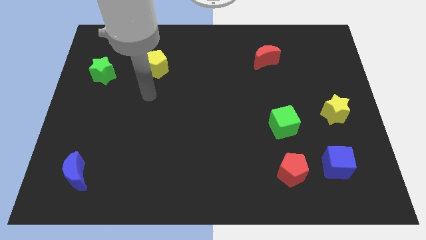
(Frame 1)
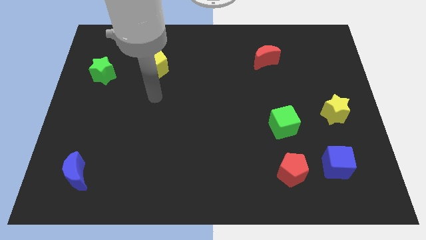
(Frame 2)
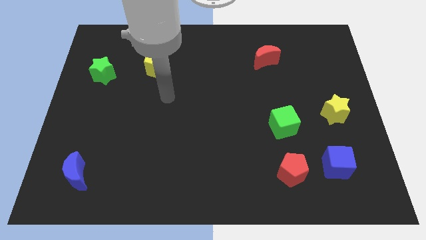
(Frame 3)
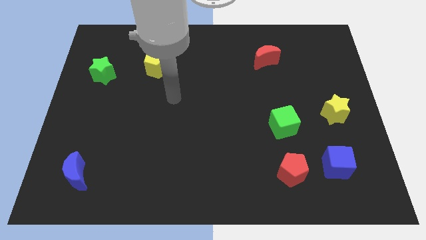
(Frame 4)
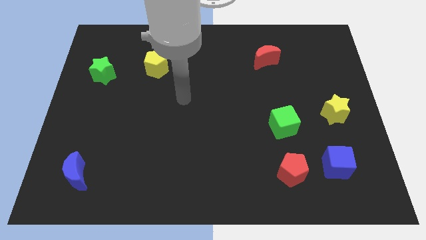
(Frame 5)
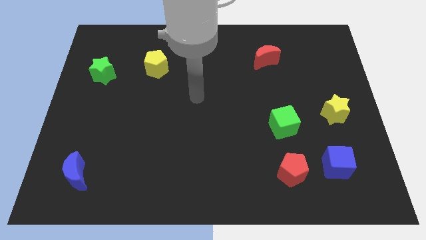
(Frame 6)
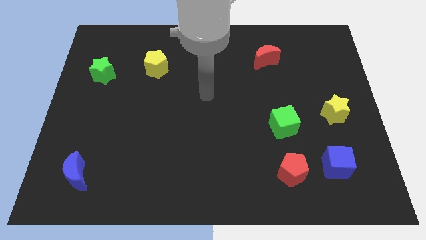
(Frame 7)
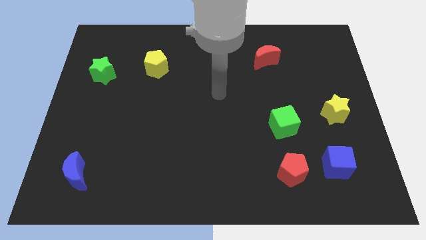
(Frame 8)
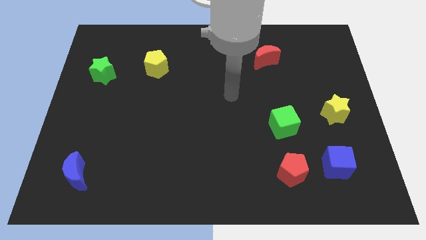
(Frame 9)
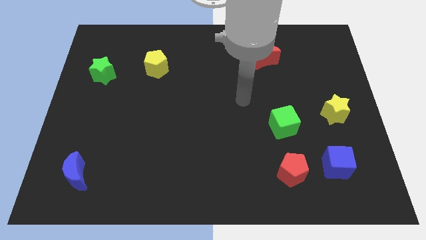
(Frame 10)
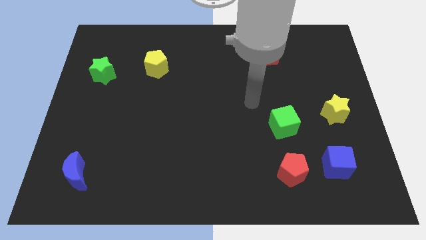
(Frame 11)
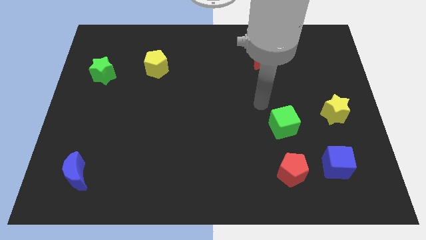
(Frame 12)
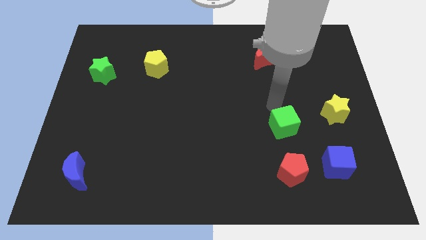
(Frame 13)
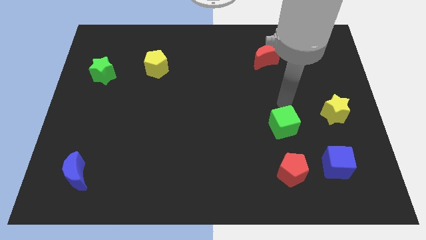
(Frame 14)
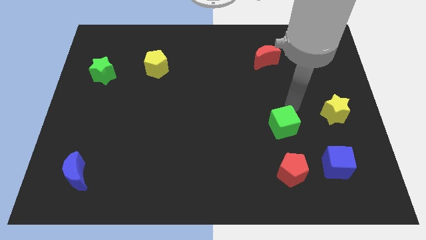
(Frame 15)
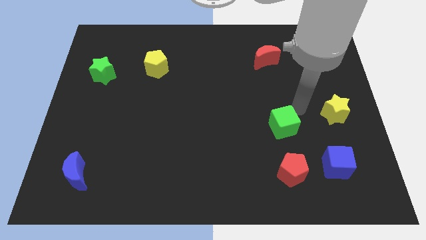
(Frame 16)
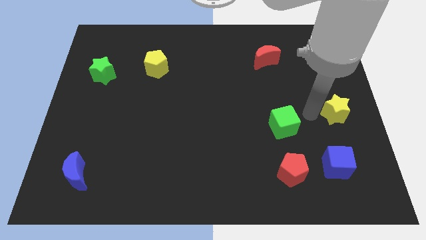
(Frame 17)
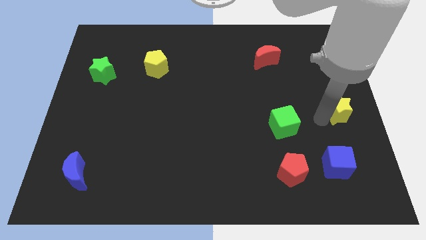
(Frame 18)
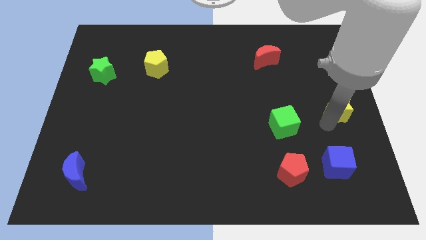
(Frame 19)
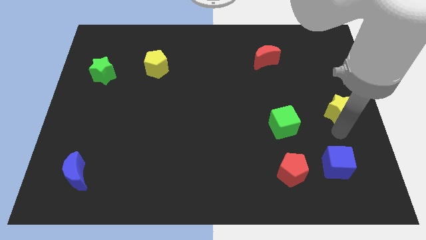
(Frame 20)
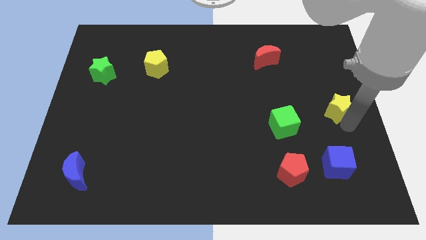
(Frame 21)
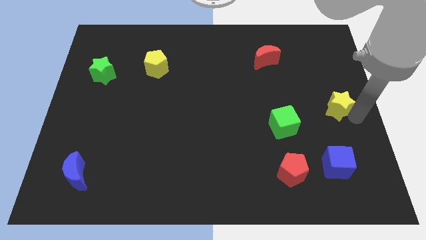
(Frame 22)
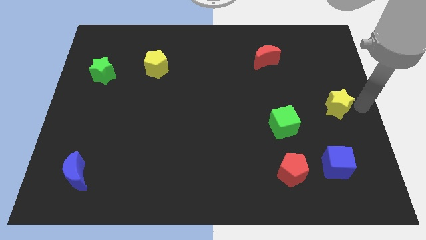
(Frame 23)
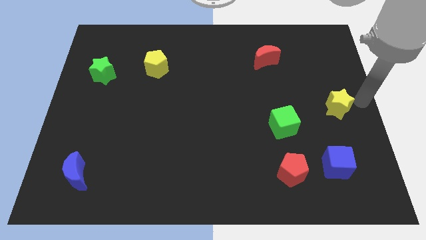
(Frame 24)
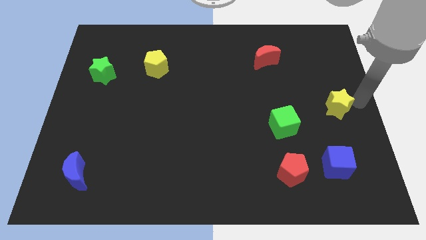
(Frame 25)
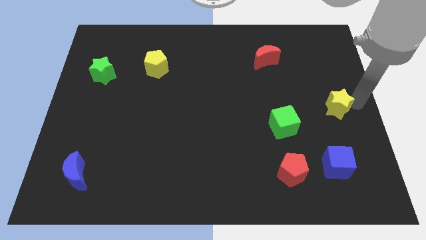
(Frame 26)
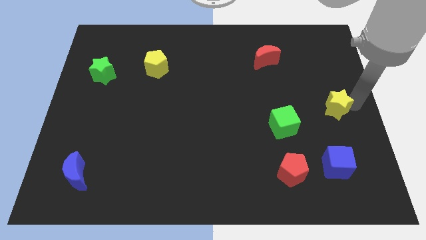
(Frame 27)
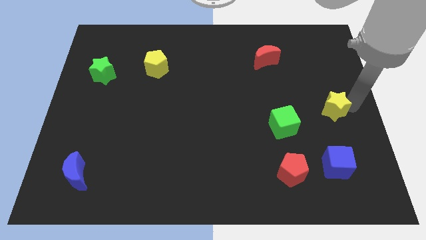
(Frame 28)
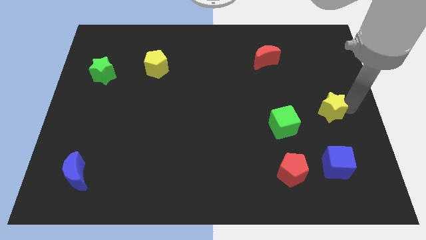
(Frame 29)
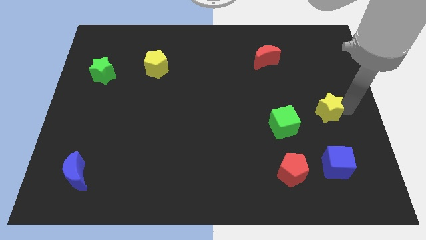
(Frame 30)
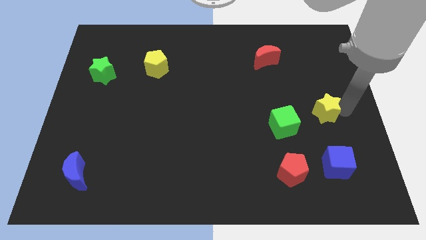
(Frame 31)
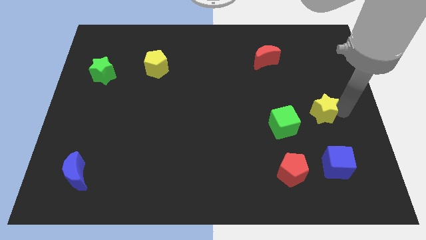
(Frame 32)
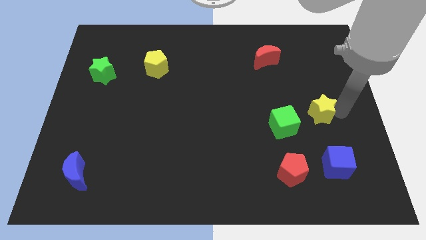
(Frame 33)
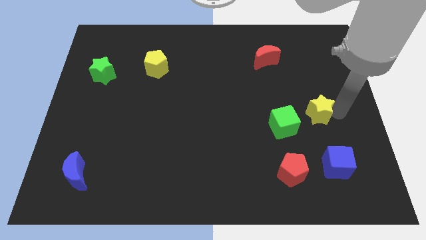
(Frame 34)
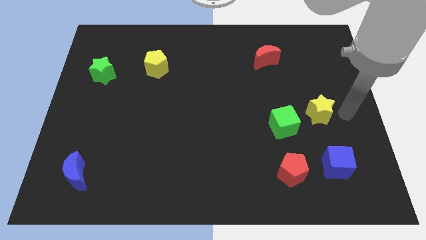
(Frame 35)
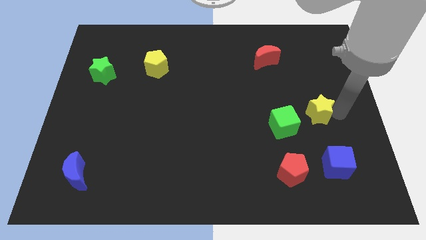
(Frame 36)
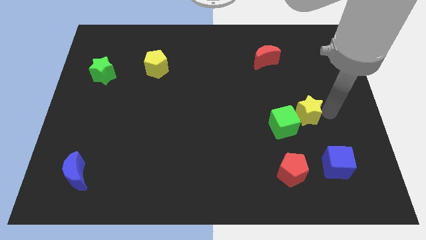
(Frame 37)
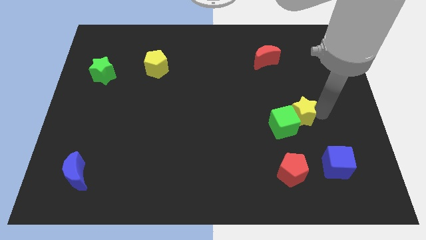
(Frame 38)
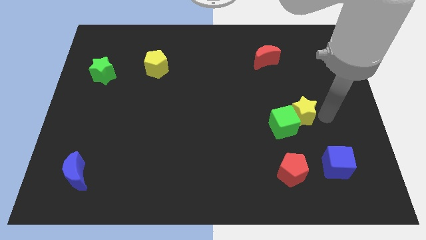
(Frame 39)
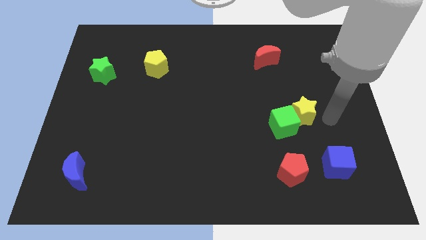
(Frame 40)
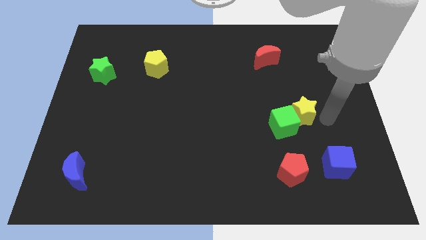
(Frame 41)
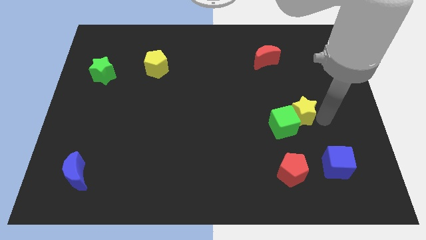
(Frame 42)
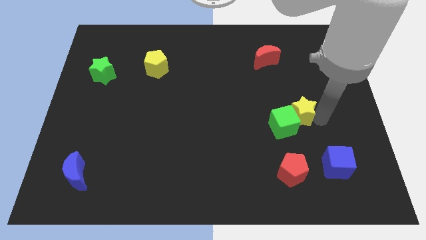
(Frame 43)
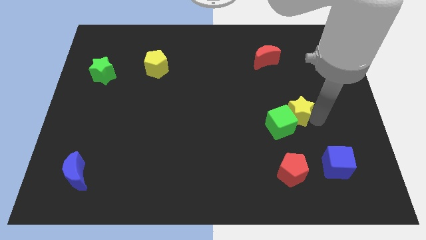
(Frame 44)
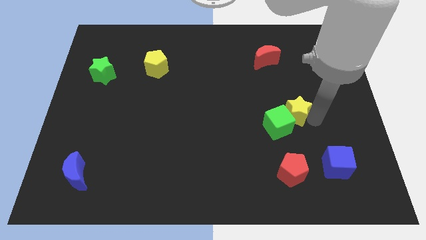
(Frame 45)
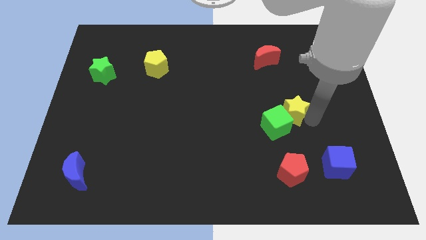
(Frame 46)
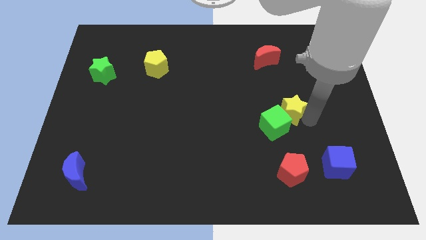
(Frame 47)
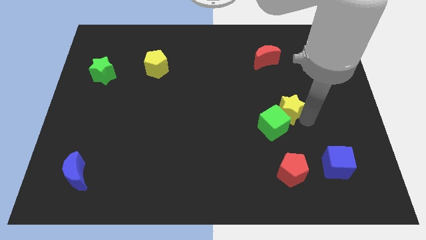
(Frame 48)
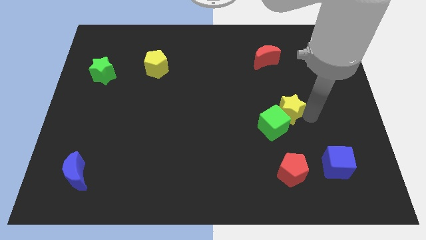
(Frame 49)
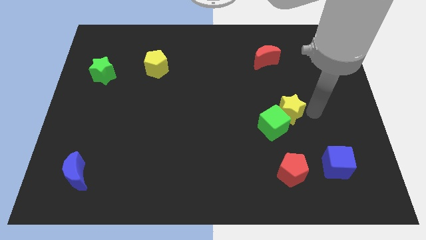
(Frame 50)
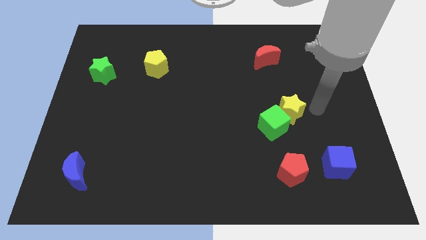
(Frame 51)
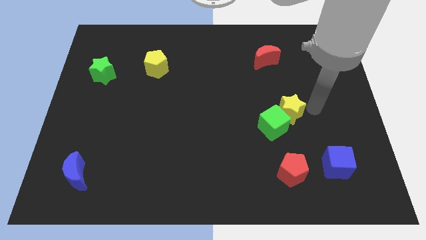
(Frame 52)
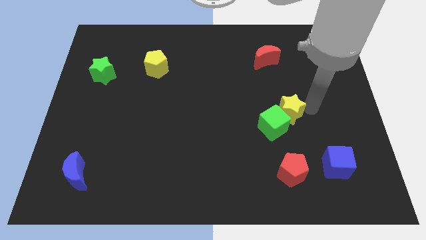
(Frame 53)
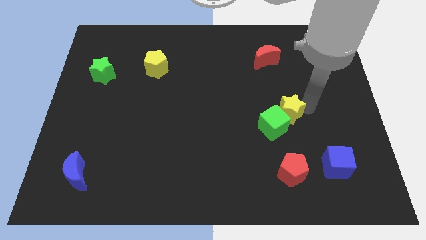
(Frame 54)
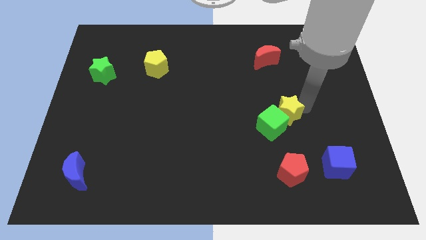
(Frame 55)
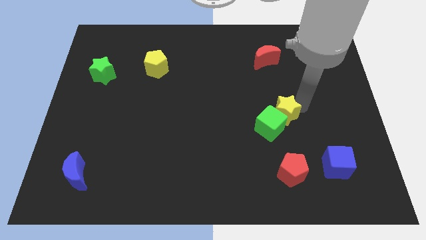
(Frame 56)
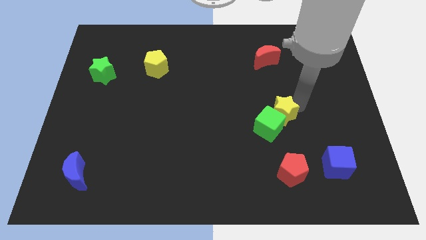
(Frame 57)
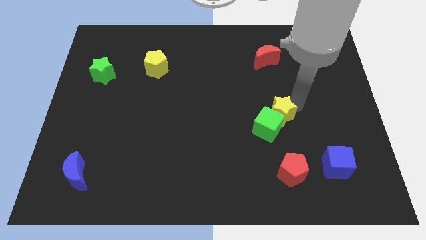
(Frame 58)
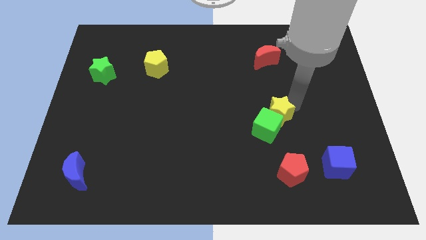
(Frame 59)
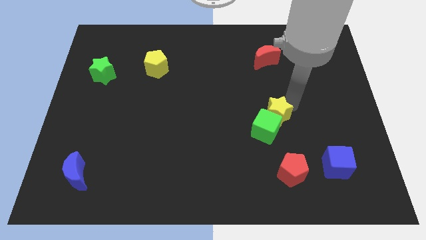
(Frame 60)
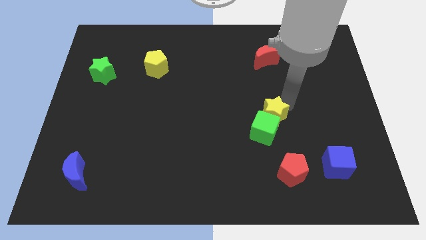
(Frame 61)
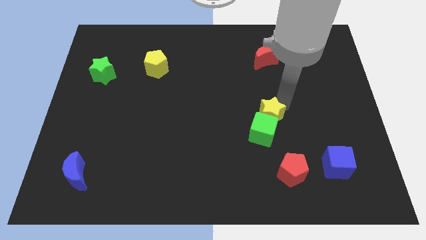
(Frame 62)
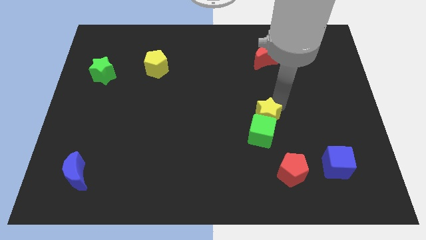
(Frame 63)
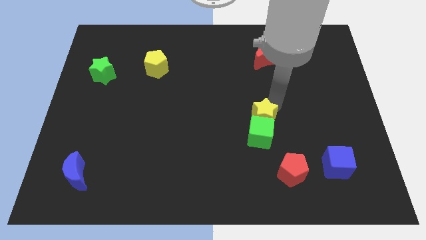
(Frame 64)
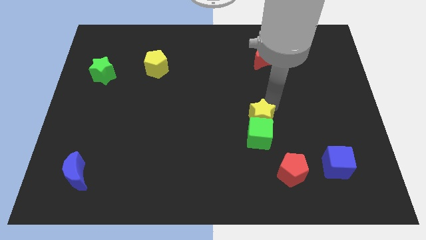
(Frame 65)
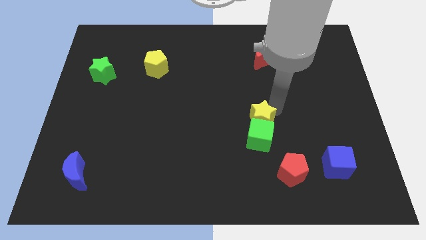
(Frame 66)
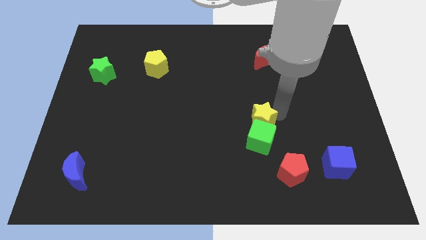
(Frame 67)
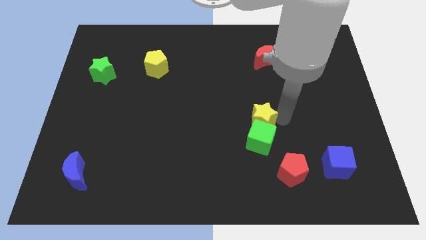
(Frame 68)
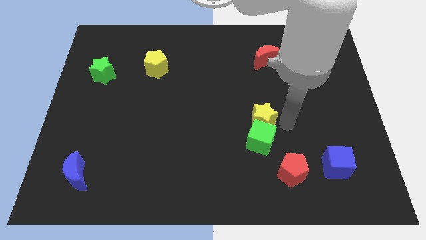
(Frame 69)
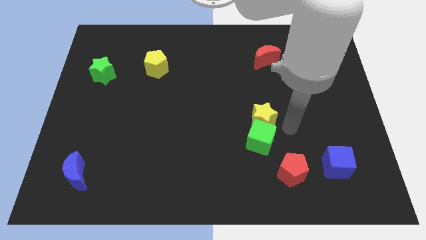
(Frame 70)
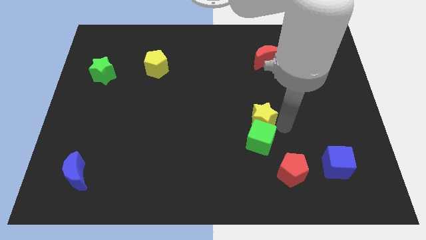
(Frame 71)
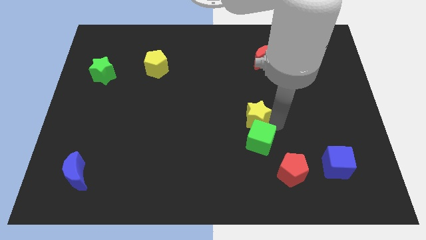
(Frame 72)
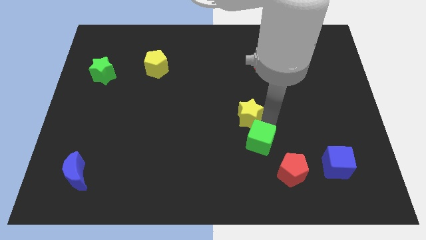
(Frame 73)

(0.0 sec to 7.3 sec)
move the yellow star left

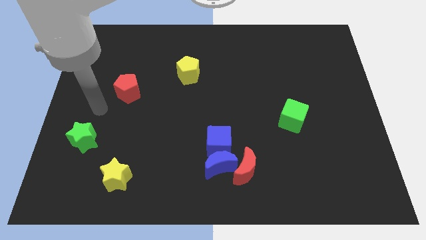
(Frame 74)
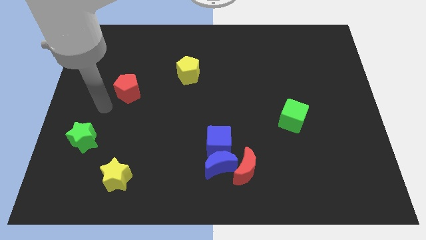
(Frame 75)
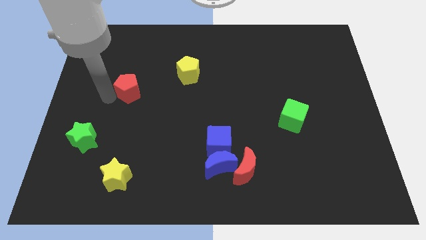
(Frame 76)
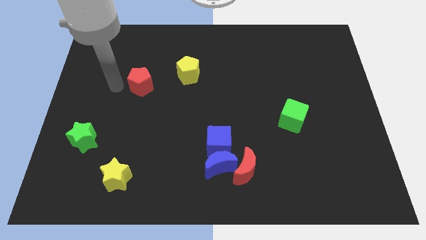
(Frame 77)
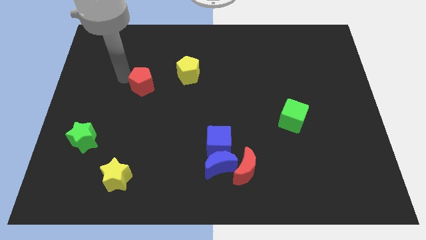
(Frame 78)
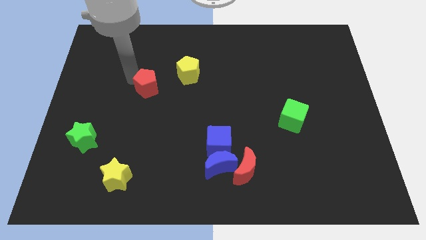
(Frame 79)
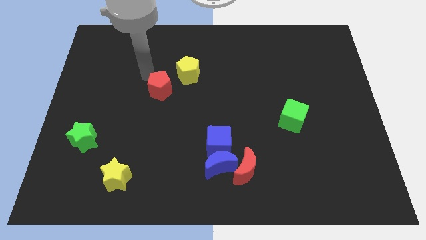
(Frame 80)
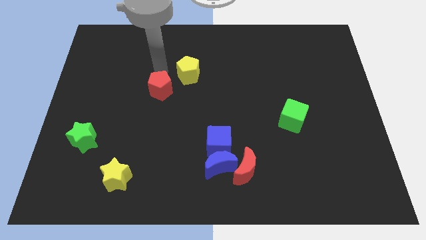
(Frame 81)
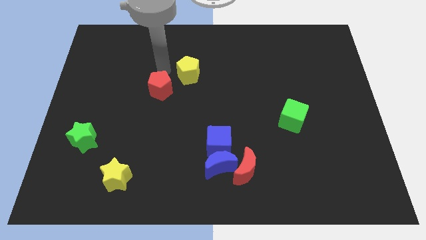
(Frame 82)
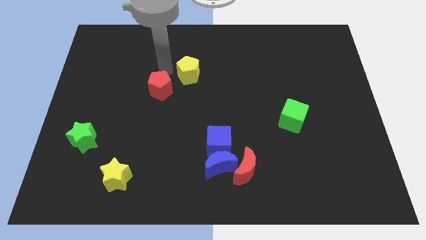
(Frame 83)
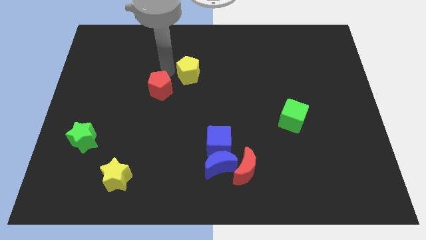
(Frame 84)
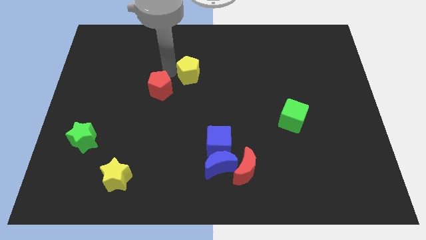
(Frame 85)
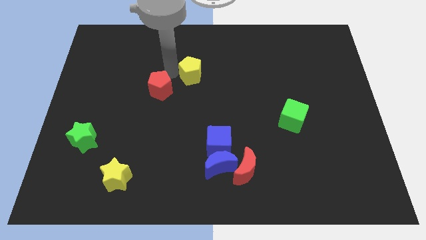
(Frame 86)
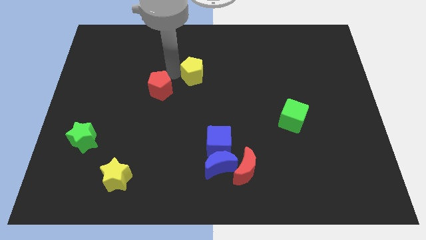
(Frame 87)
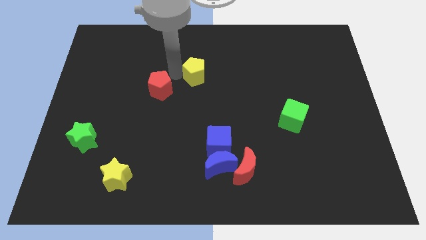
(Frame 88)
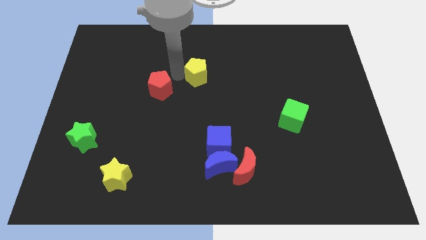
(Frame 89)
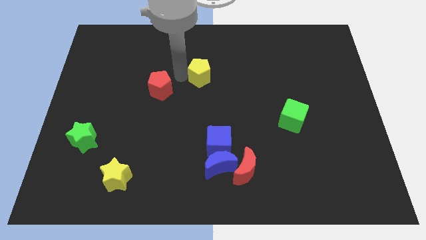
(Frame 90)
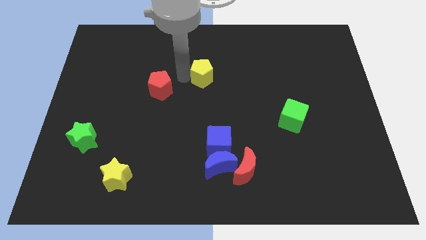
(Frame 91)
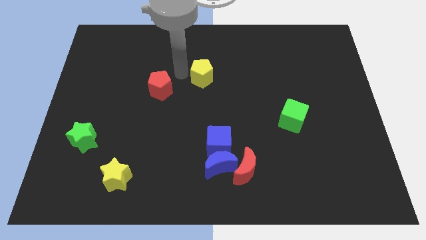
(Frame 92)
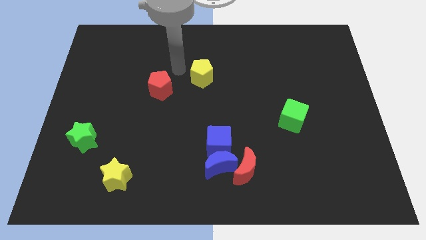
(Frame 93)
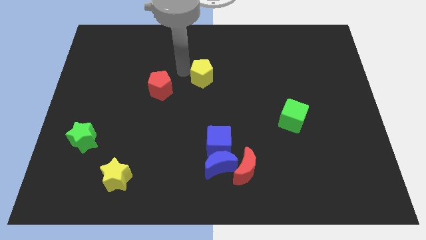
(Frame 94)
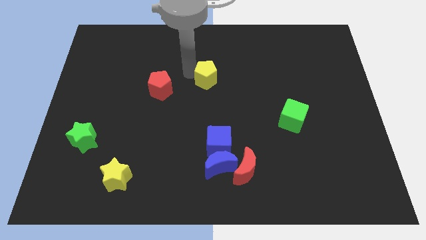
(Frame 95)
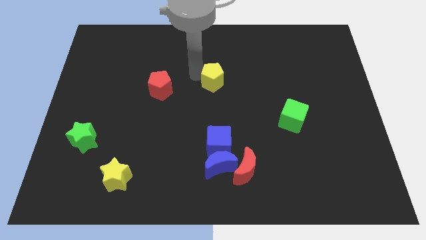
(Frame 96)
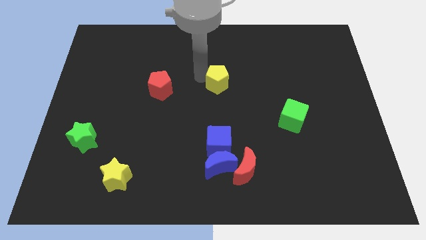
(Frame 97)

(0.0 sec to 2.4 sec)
slightly slide the yellow pentagon right
